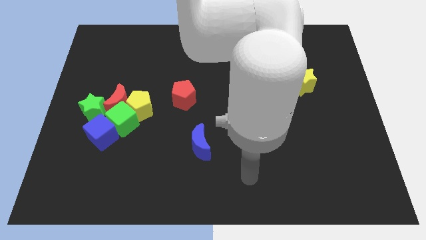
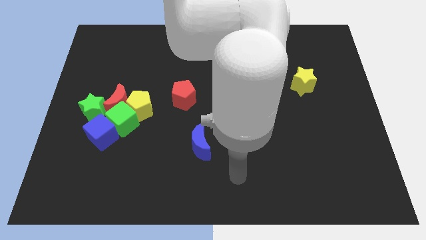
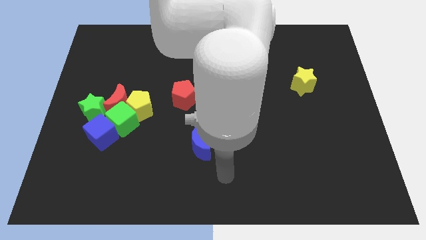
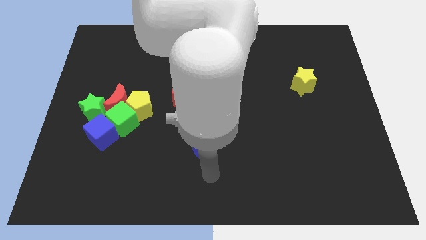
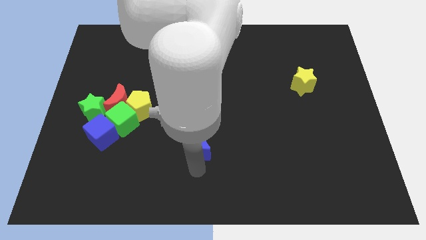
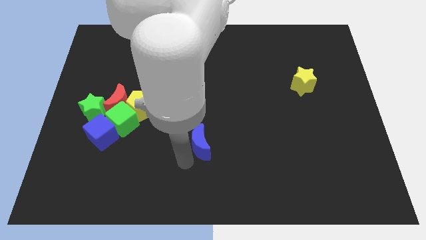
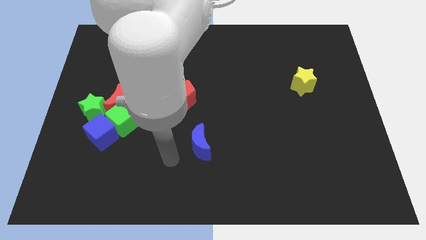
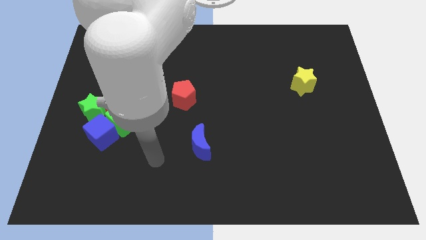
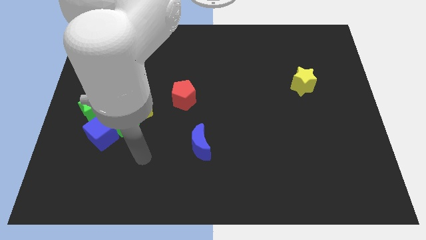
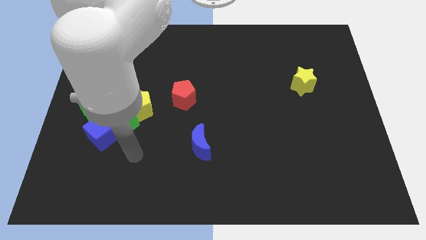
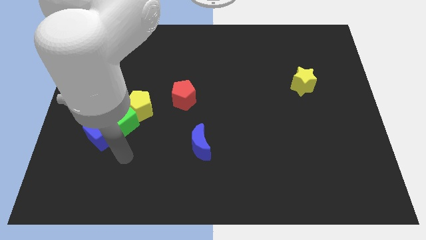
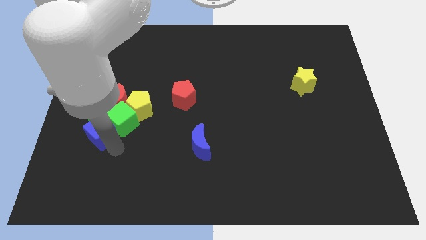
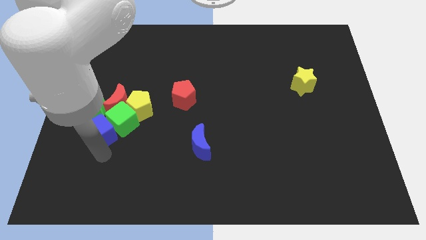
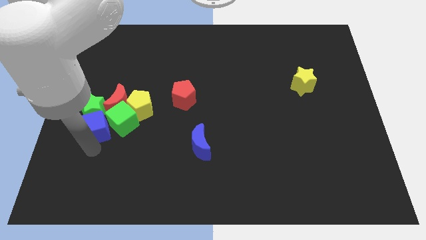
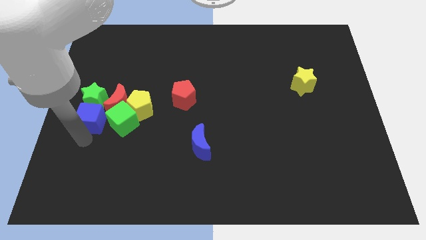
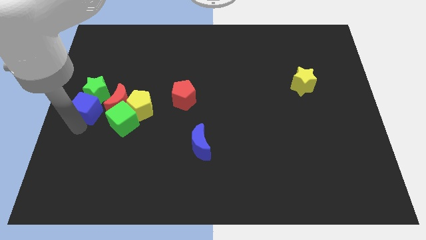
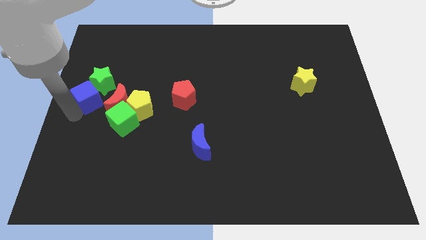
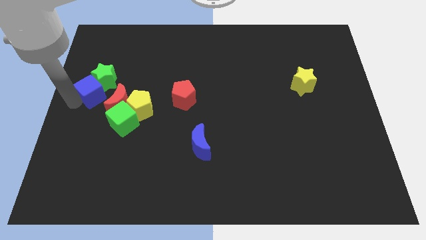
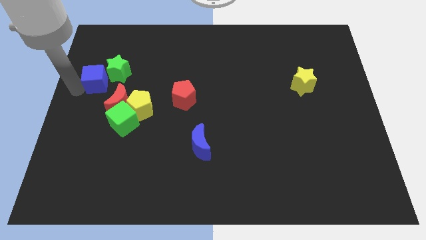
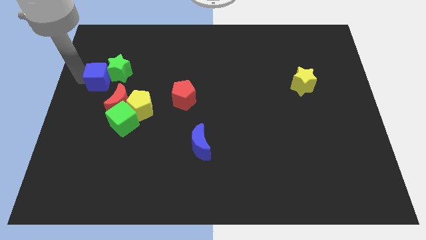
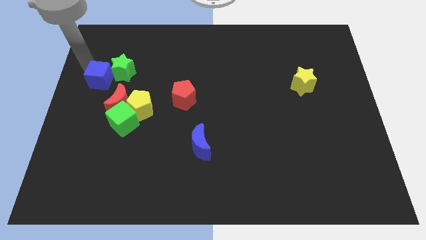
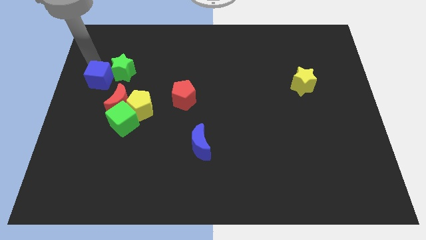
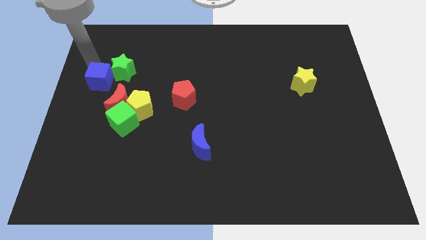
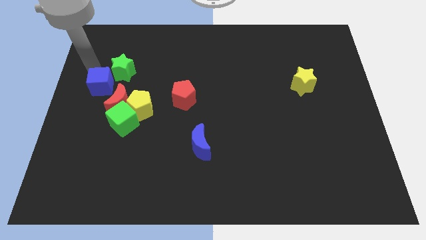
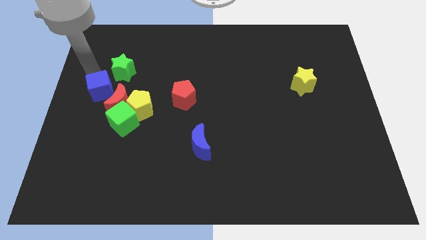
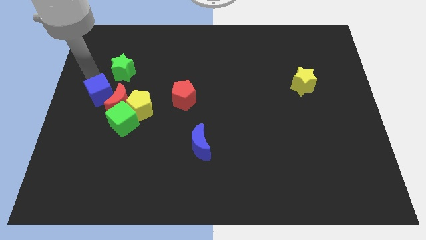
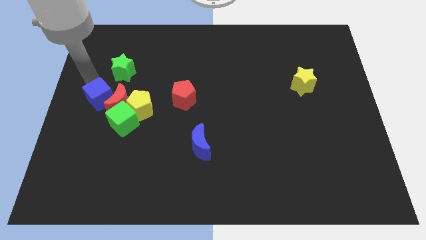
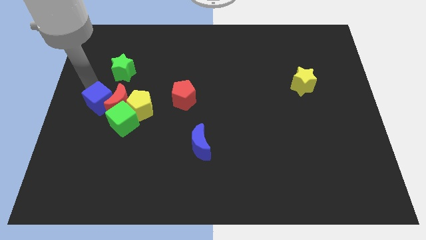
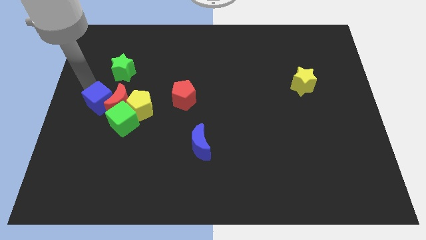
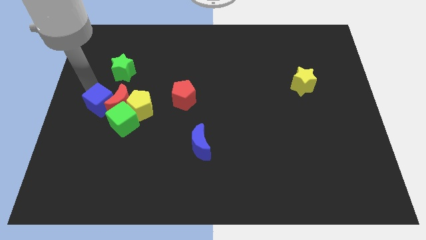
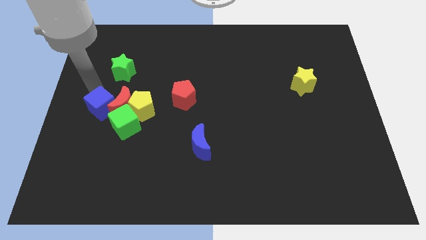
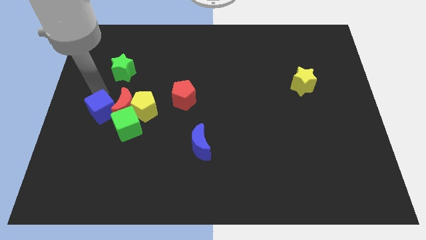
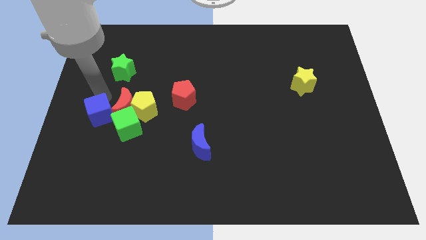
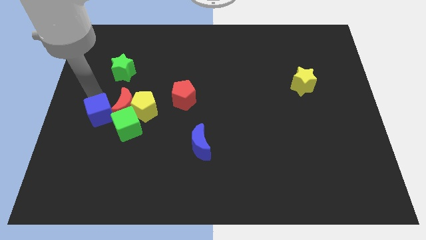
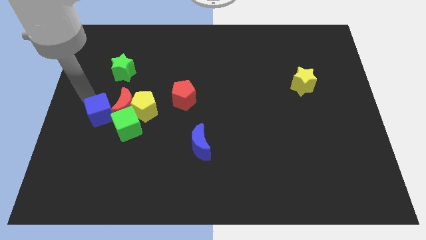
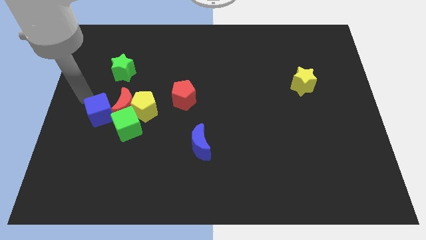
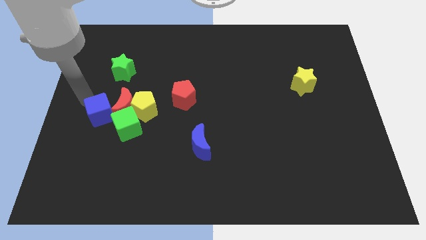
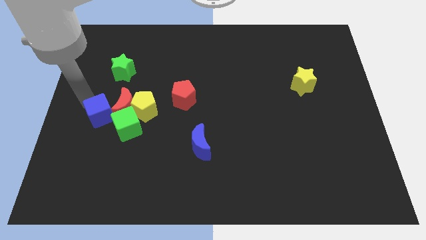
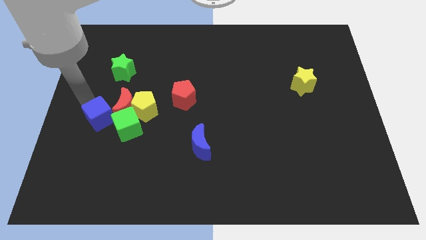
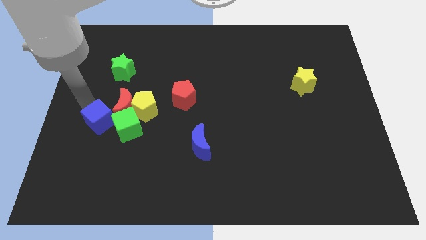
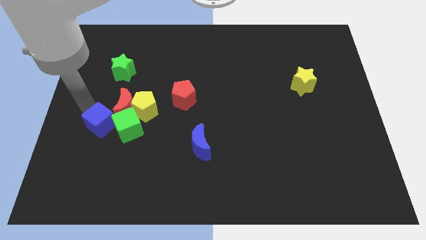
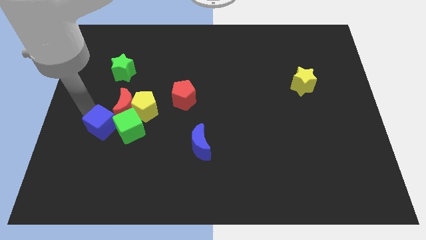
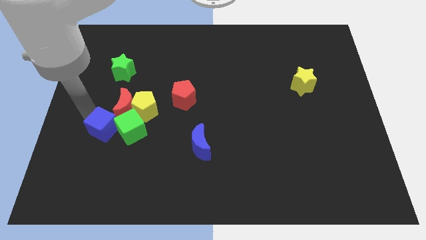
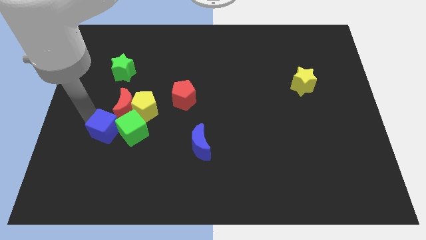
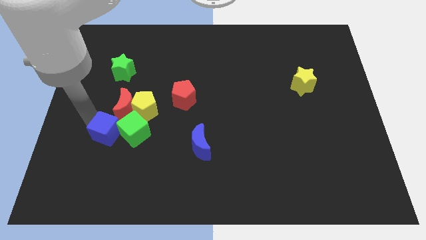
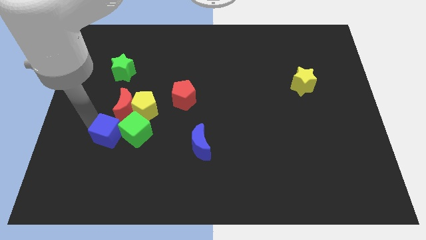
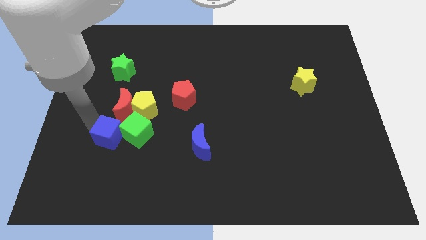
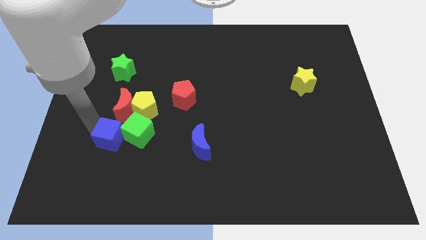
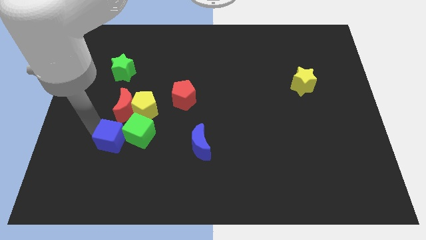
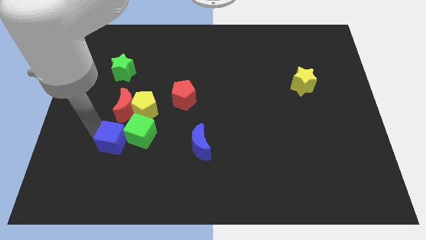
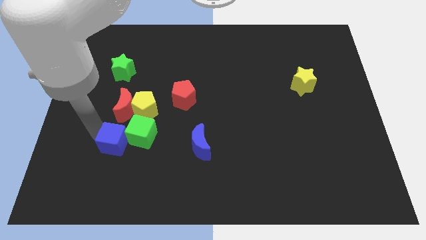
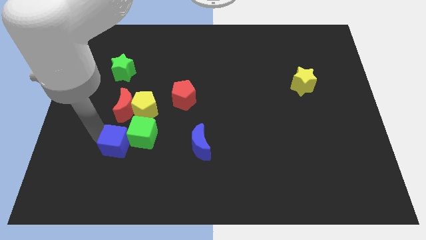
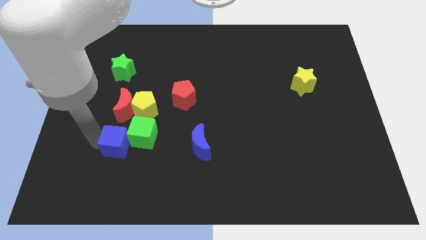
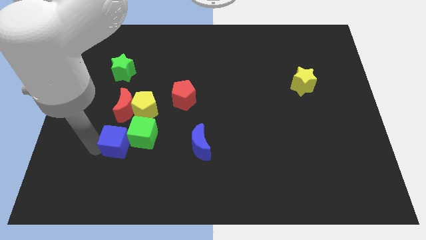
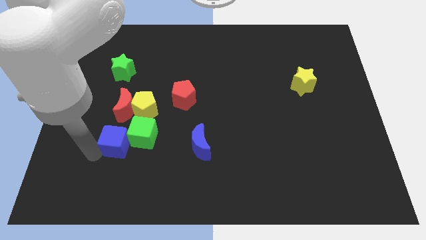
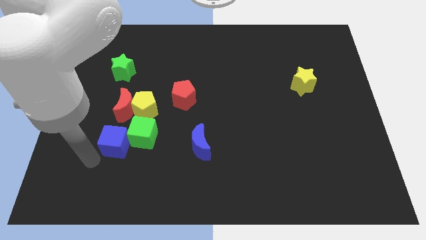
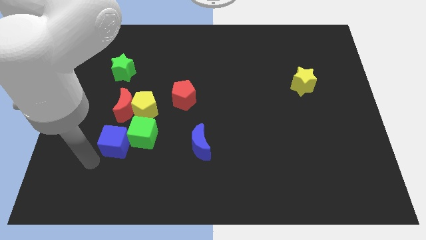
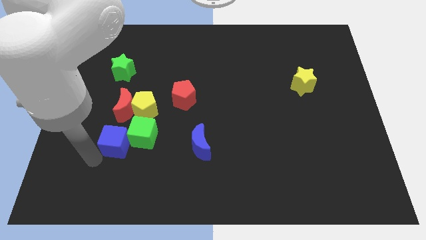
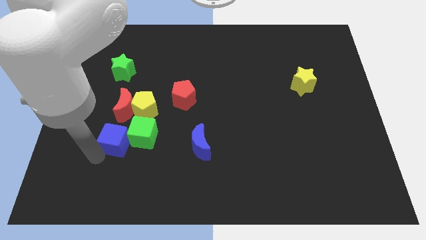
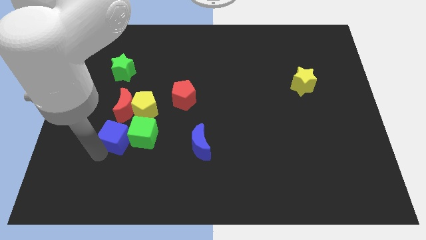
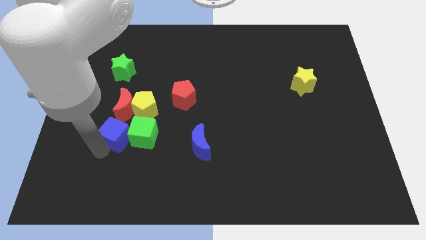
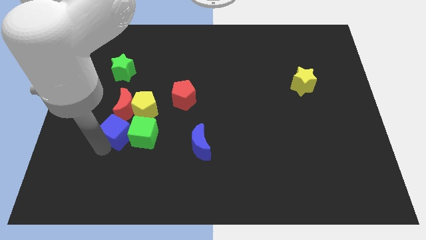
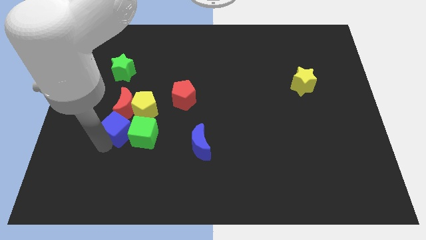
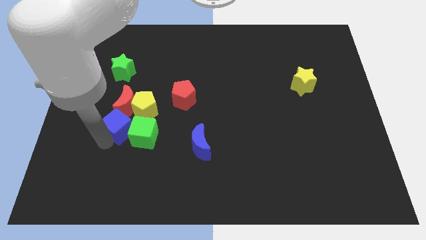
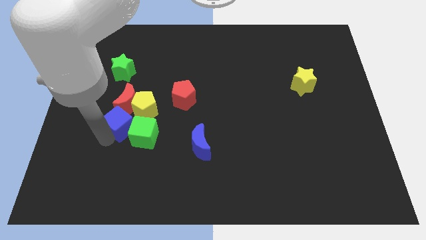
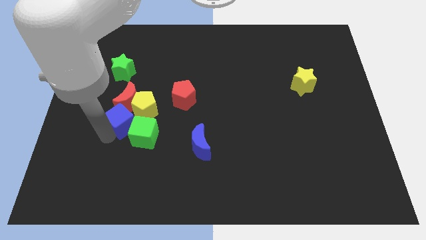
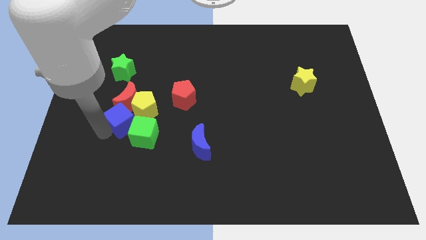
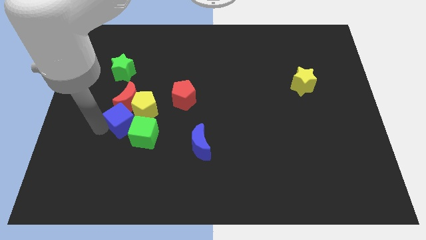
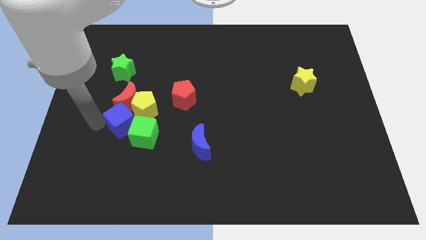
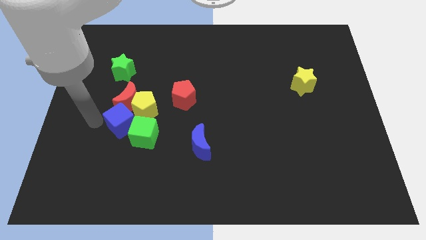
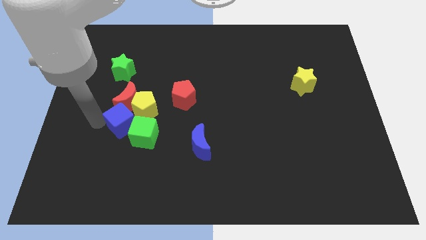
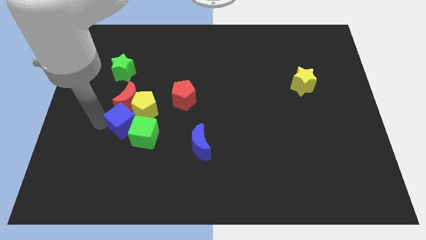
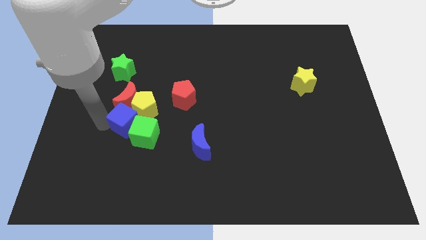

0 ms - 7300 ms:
slide the blue cube towards the yellow pentagon
